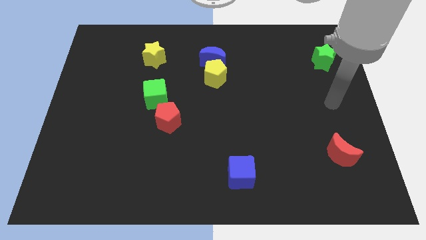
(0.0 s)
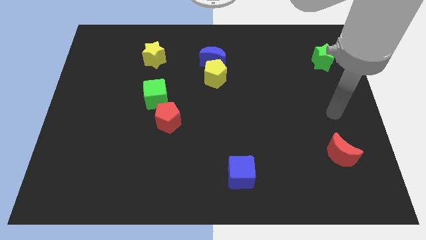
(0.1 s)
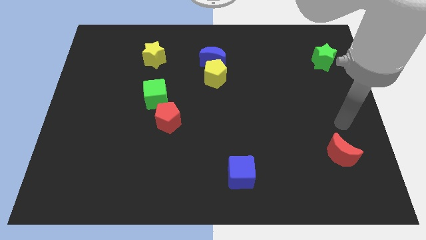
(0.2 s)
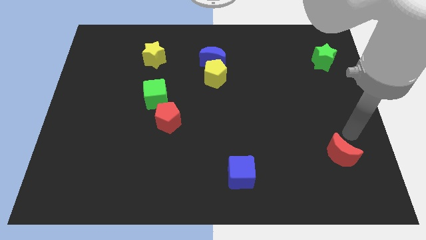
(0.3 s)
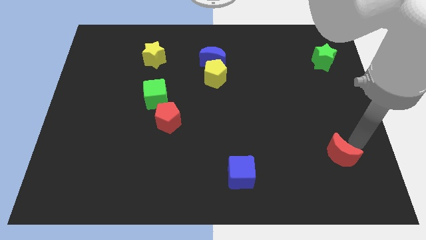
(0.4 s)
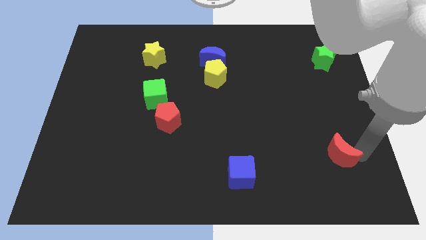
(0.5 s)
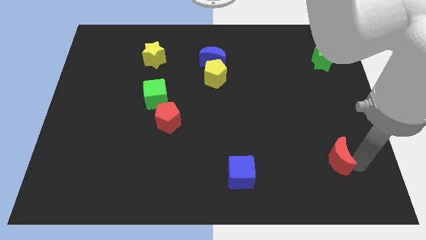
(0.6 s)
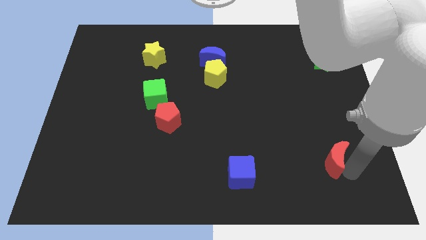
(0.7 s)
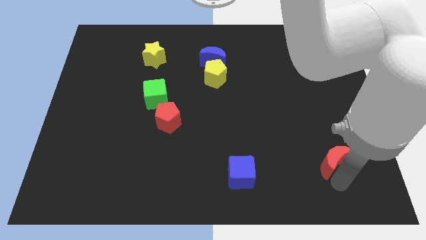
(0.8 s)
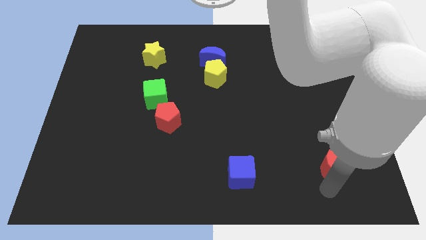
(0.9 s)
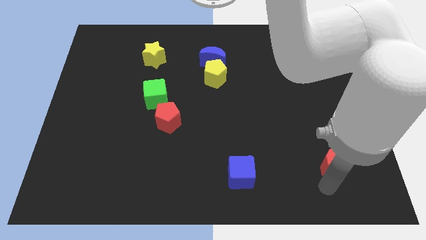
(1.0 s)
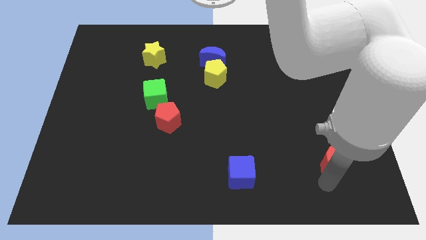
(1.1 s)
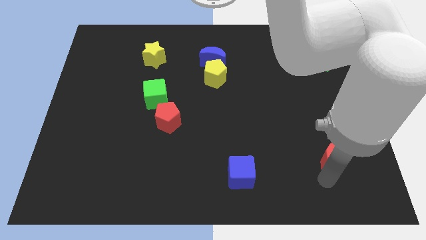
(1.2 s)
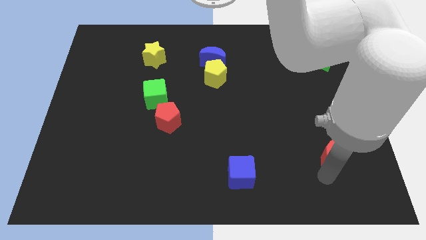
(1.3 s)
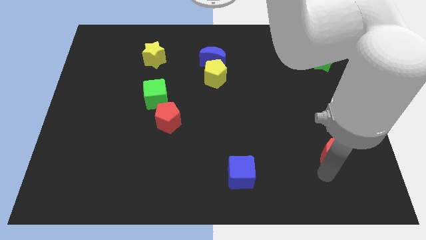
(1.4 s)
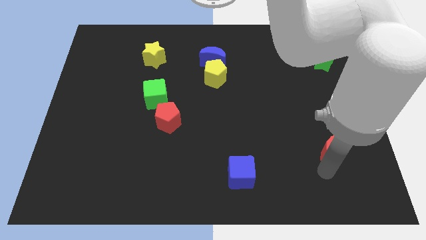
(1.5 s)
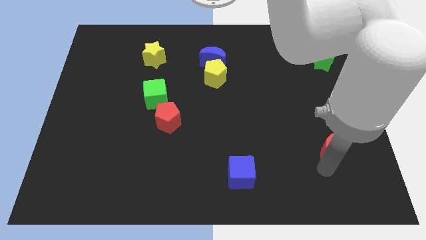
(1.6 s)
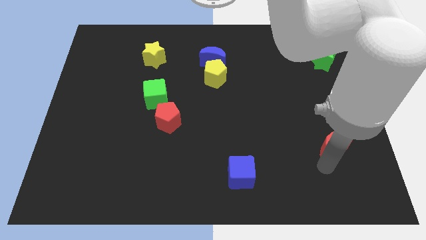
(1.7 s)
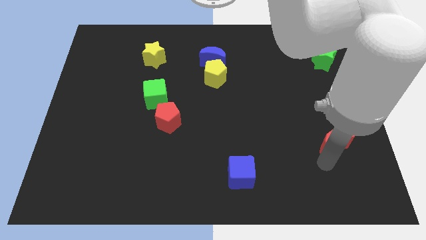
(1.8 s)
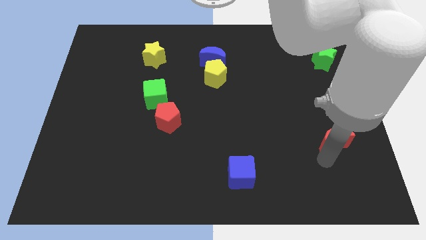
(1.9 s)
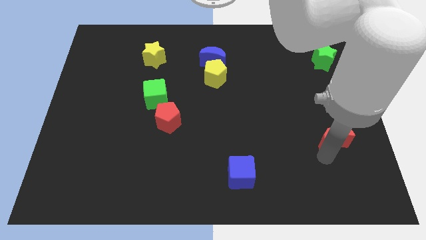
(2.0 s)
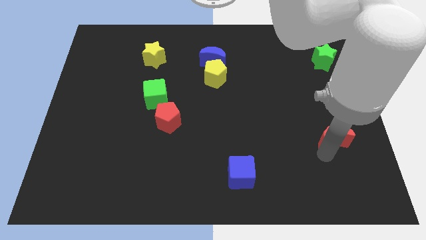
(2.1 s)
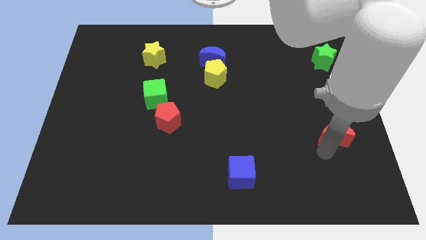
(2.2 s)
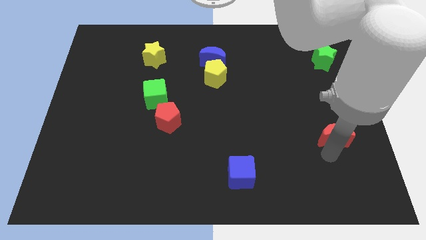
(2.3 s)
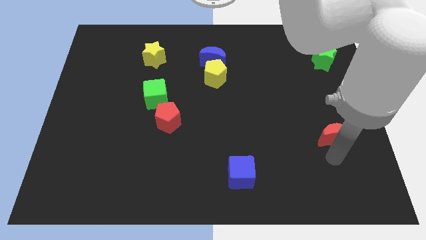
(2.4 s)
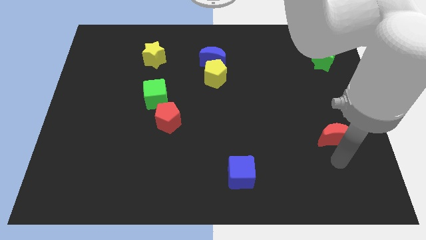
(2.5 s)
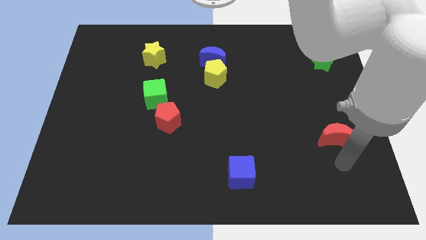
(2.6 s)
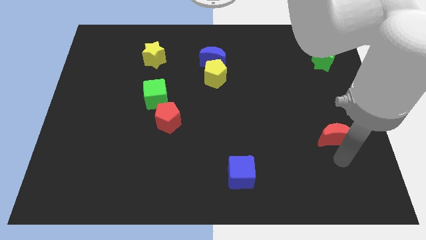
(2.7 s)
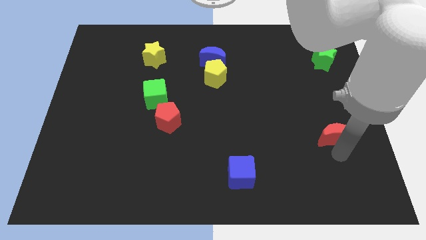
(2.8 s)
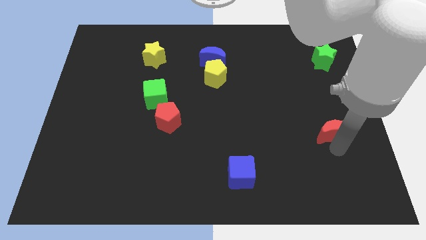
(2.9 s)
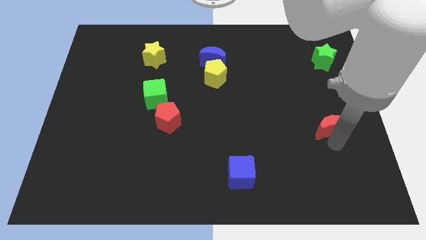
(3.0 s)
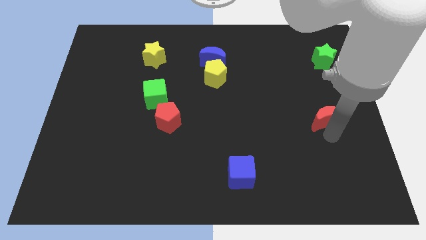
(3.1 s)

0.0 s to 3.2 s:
slightly push the red moon up

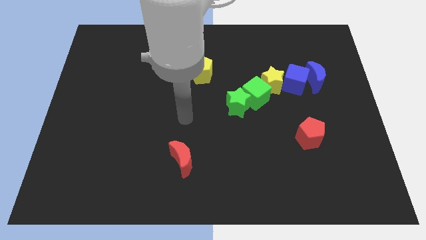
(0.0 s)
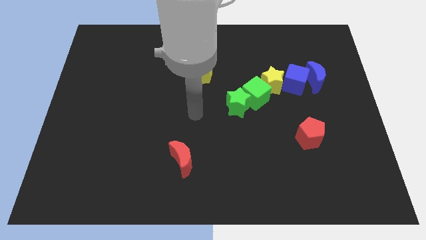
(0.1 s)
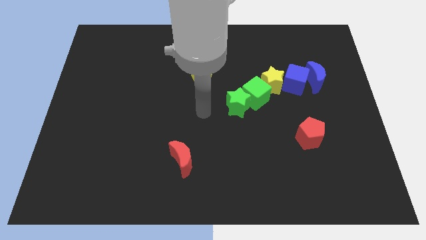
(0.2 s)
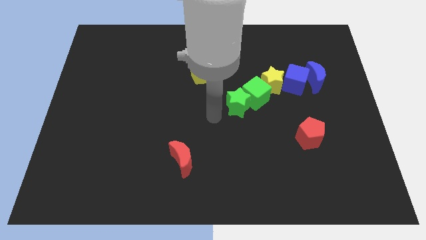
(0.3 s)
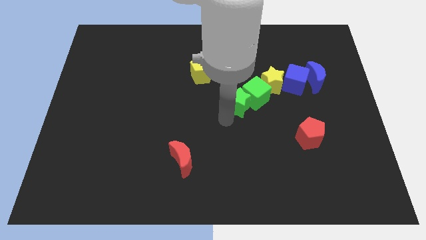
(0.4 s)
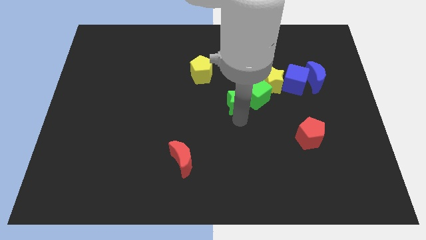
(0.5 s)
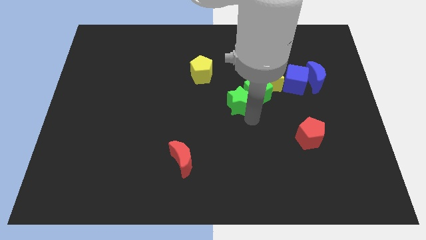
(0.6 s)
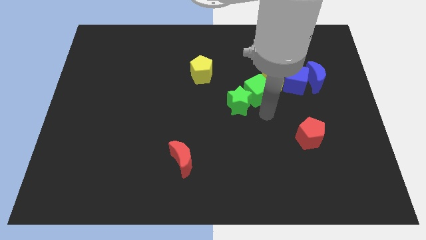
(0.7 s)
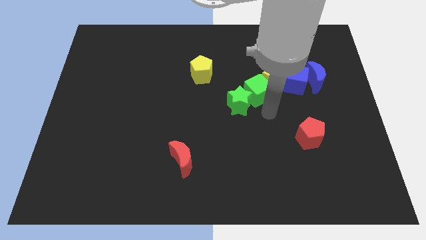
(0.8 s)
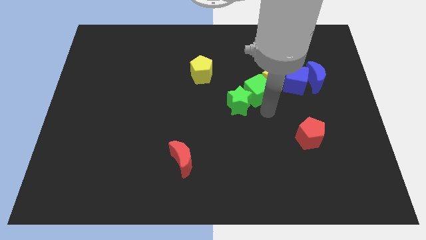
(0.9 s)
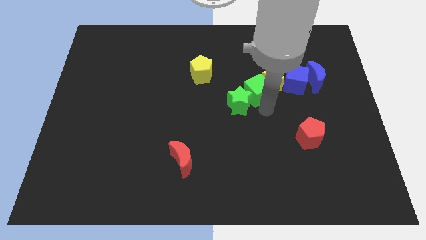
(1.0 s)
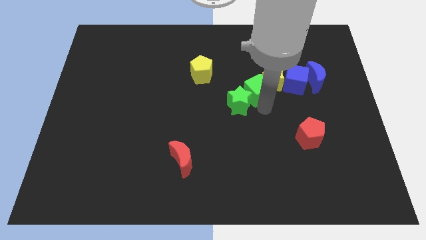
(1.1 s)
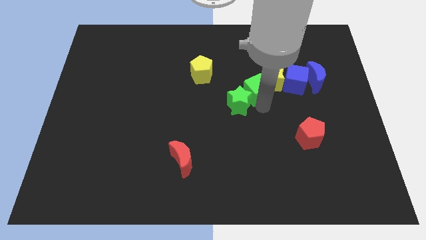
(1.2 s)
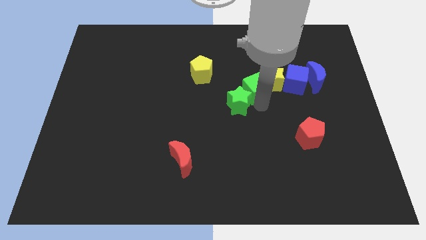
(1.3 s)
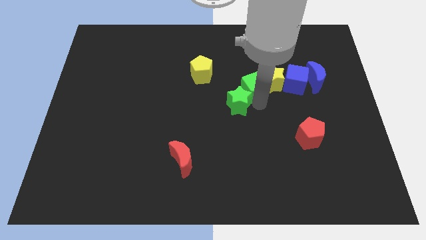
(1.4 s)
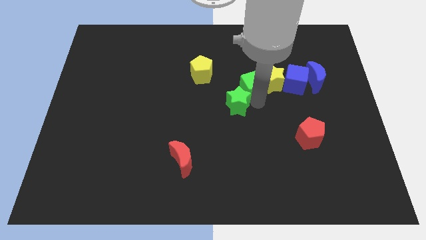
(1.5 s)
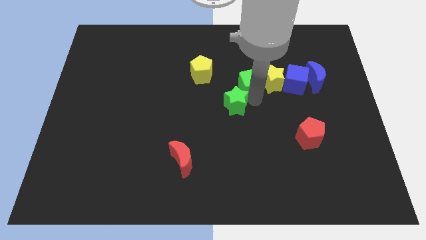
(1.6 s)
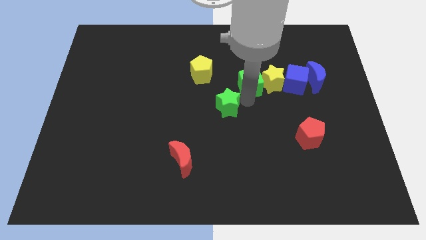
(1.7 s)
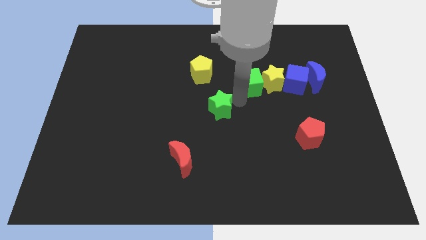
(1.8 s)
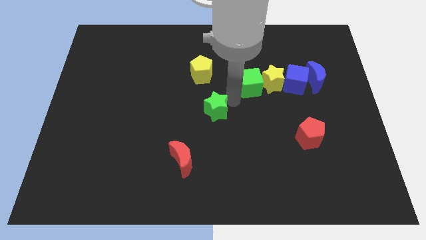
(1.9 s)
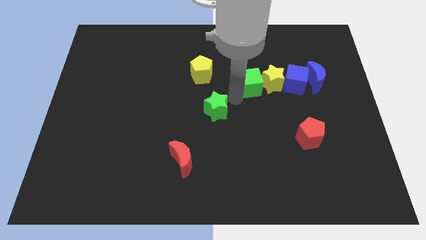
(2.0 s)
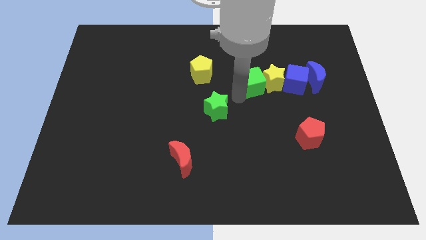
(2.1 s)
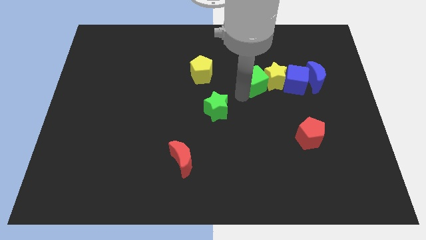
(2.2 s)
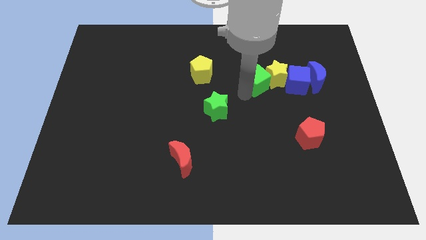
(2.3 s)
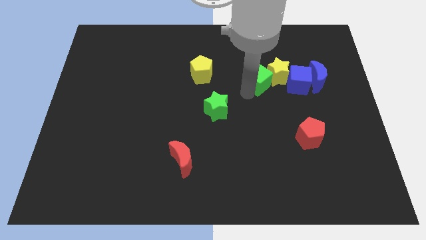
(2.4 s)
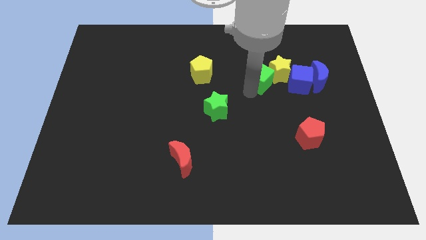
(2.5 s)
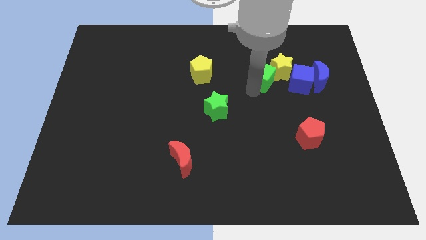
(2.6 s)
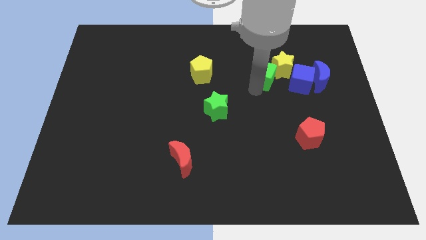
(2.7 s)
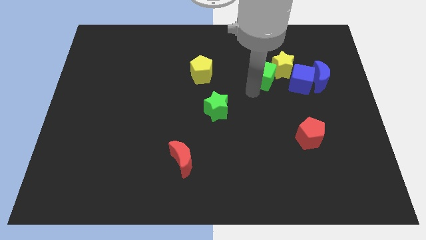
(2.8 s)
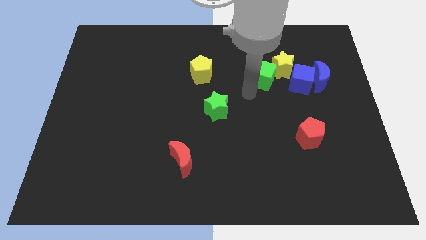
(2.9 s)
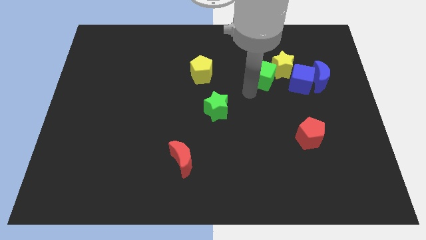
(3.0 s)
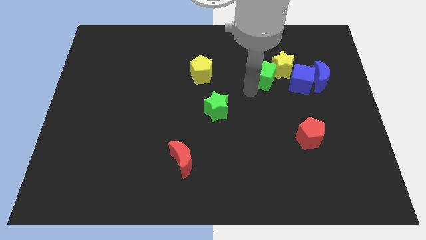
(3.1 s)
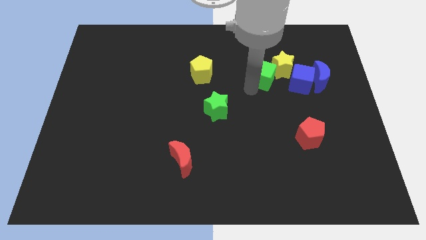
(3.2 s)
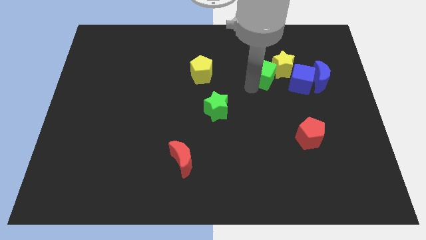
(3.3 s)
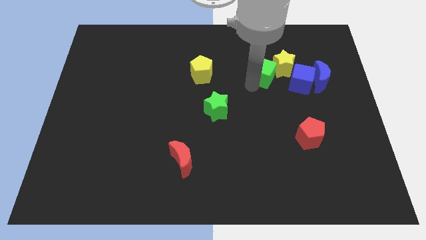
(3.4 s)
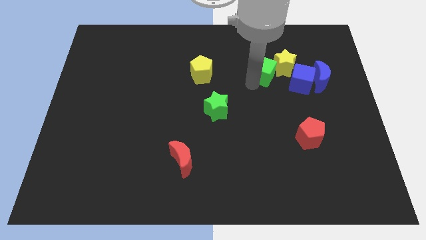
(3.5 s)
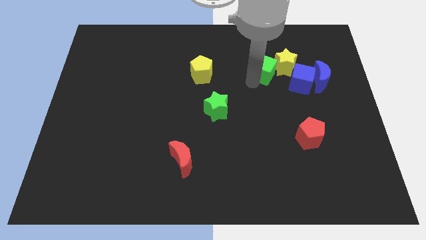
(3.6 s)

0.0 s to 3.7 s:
push the green cube diagonally up and to the right slightly

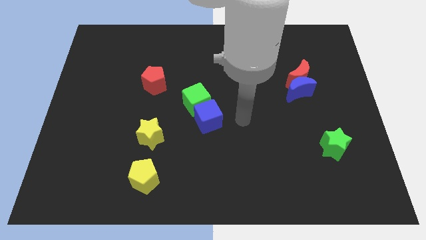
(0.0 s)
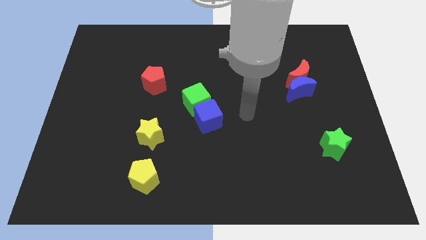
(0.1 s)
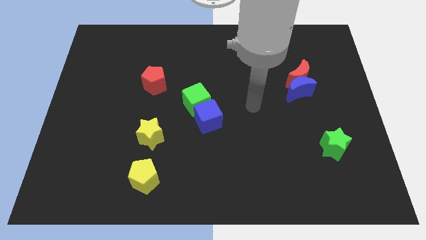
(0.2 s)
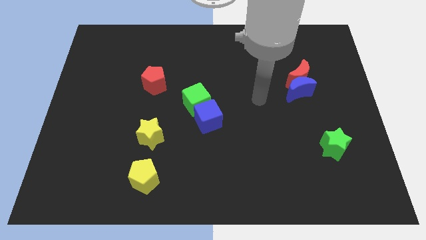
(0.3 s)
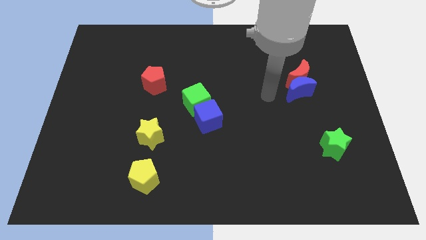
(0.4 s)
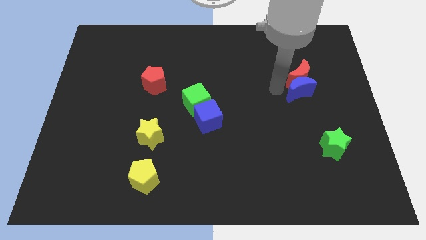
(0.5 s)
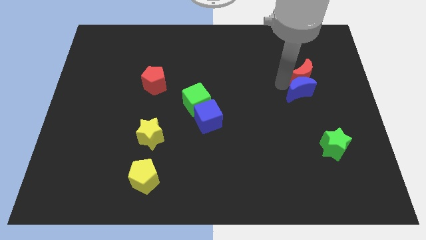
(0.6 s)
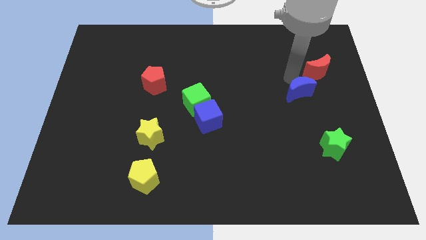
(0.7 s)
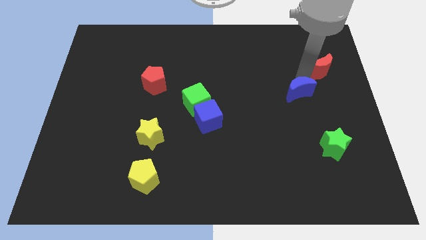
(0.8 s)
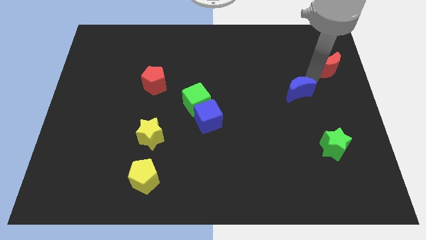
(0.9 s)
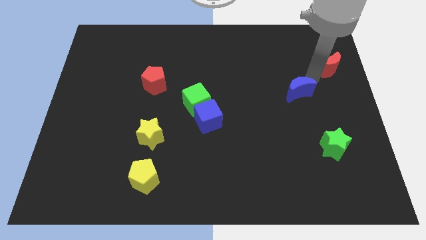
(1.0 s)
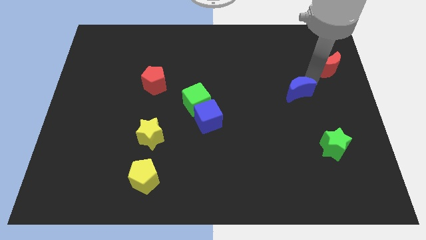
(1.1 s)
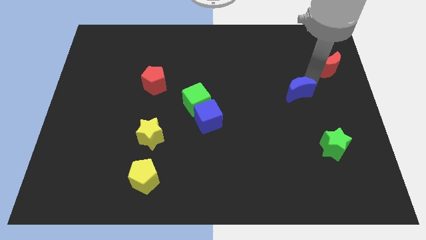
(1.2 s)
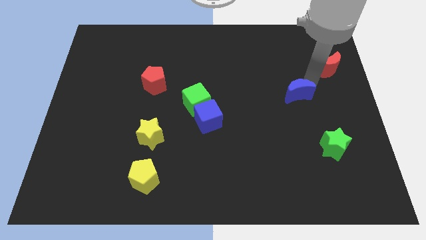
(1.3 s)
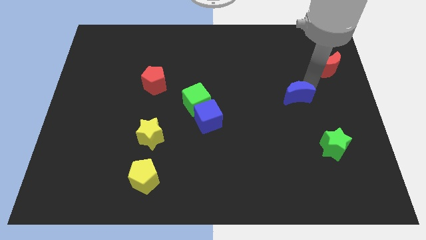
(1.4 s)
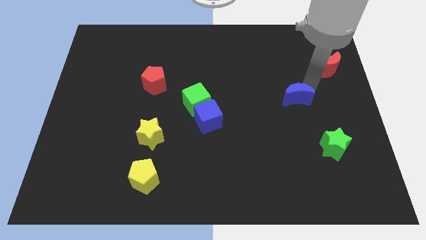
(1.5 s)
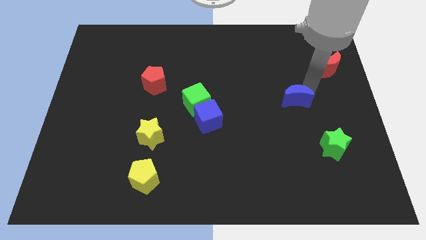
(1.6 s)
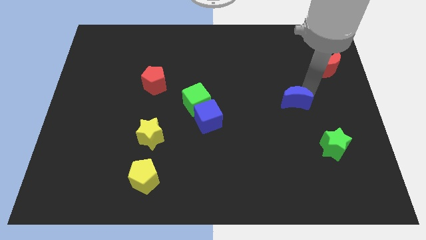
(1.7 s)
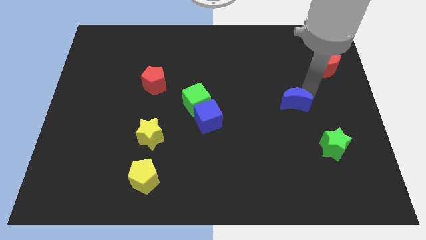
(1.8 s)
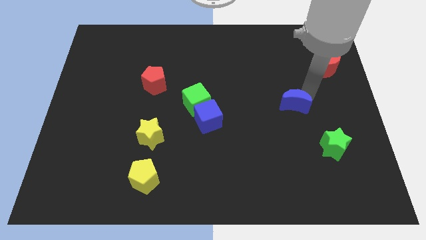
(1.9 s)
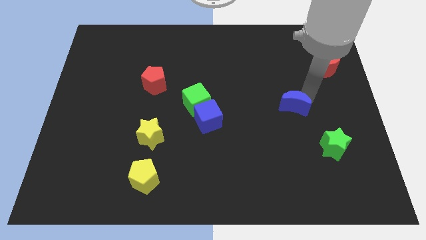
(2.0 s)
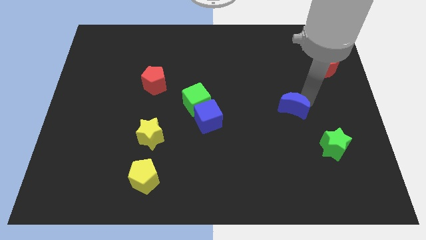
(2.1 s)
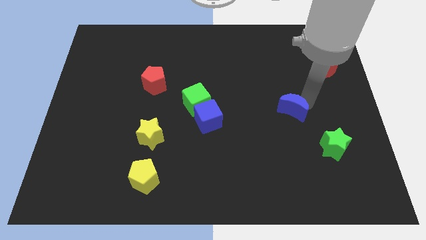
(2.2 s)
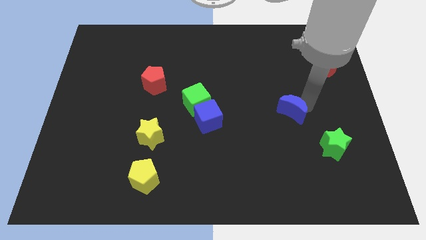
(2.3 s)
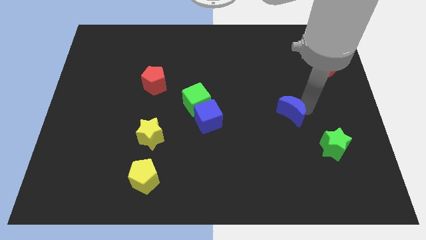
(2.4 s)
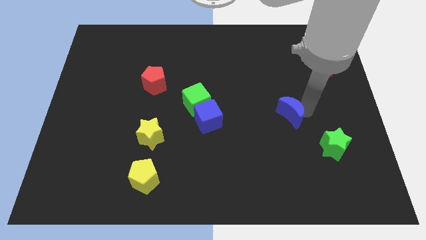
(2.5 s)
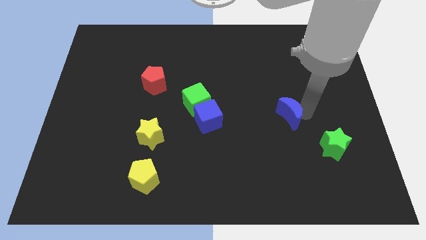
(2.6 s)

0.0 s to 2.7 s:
move the blue moon diagonally down and left a bit
